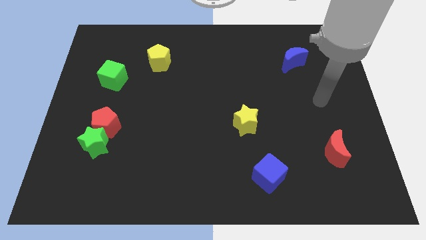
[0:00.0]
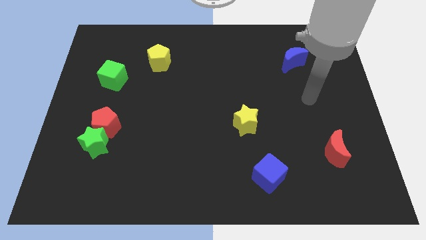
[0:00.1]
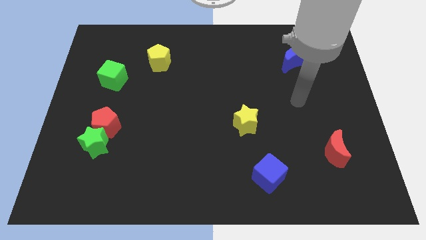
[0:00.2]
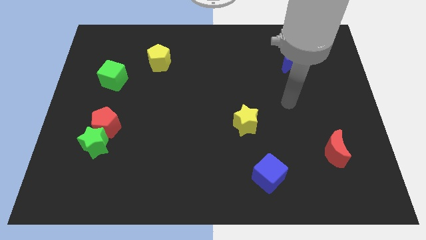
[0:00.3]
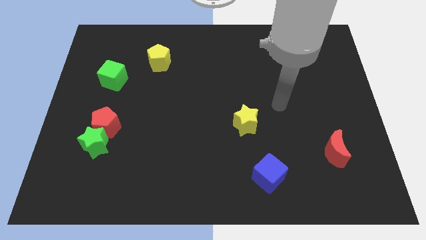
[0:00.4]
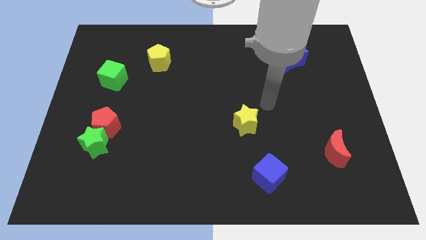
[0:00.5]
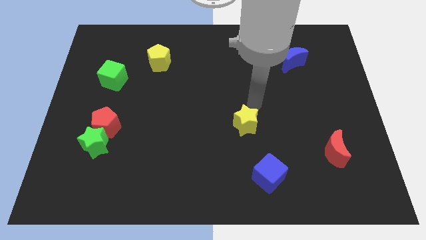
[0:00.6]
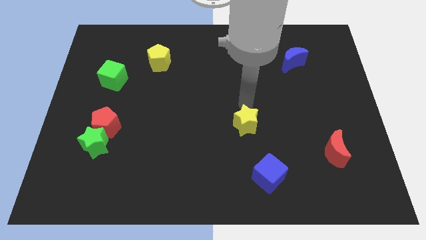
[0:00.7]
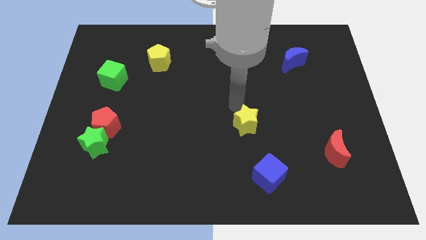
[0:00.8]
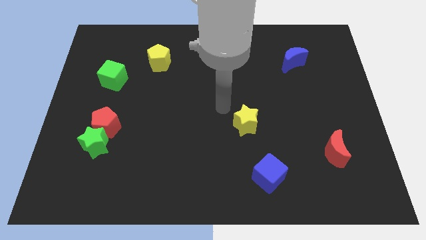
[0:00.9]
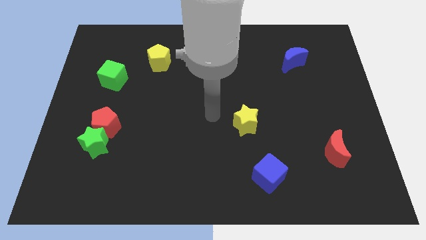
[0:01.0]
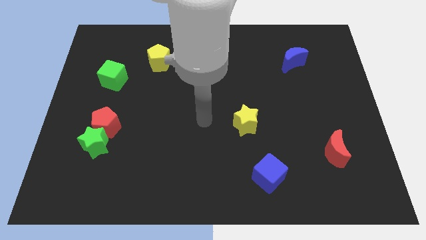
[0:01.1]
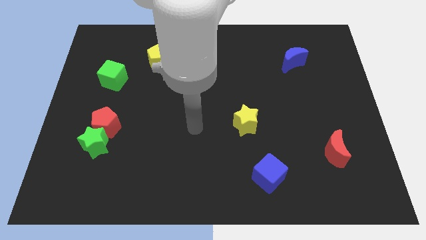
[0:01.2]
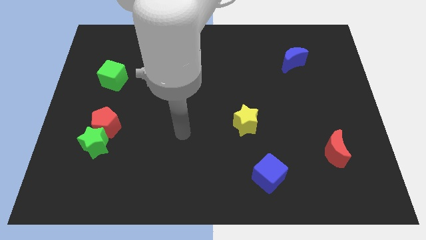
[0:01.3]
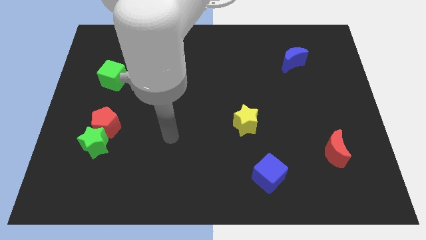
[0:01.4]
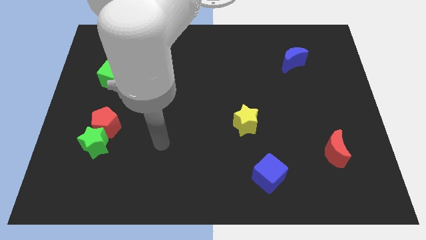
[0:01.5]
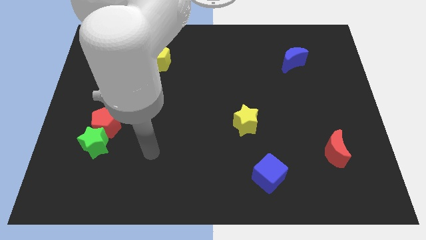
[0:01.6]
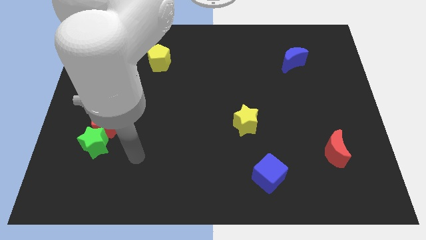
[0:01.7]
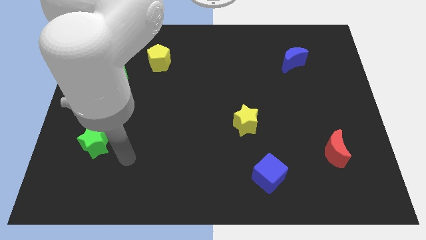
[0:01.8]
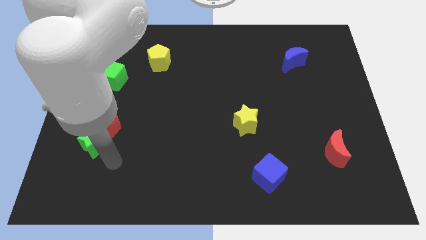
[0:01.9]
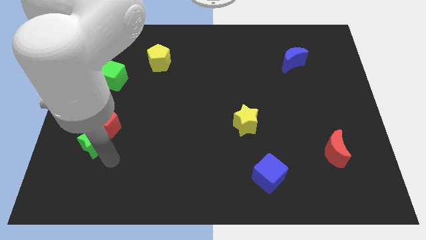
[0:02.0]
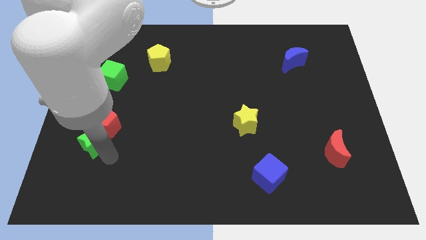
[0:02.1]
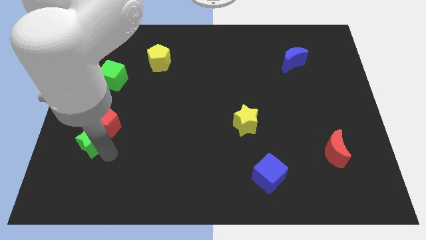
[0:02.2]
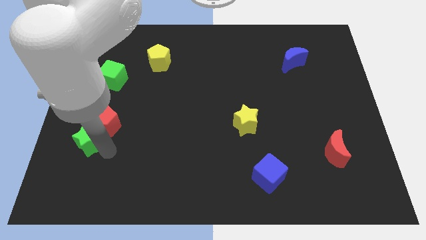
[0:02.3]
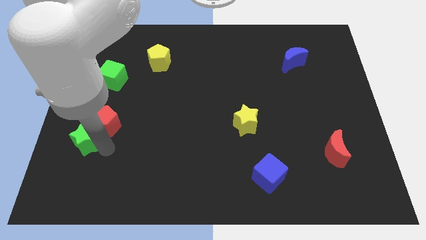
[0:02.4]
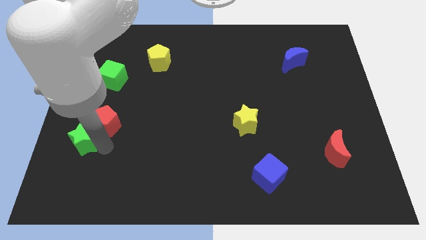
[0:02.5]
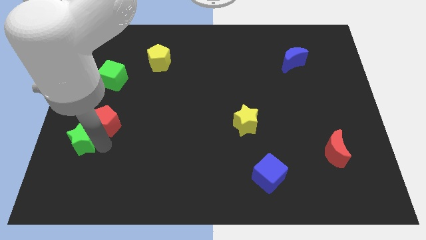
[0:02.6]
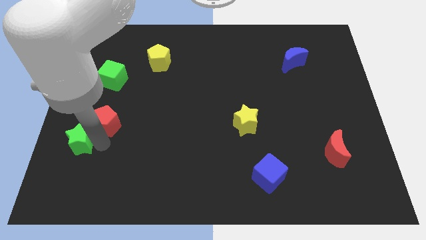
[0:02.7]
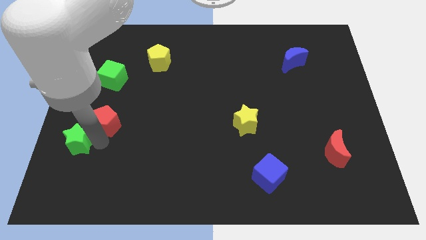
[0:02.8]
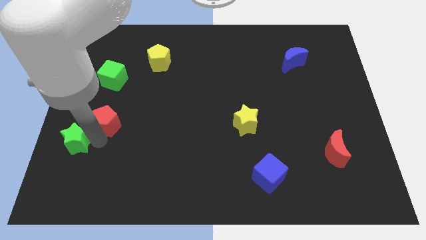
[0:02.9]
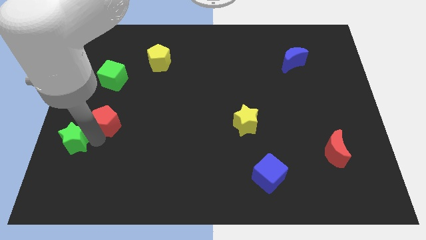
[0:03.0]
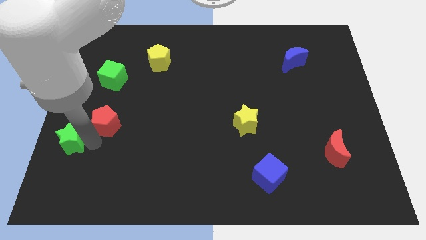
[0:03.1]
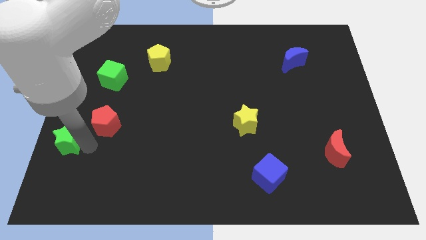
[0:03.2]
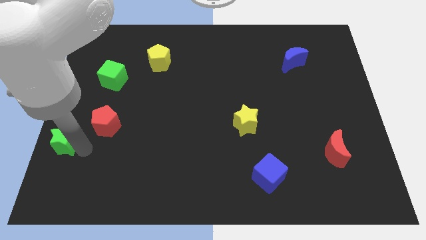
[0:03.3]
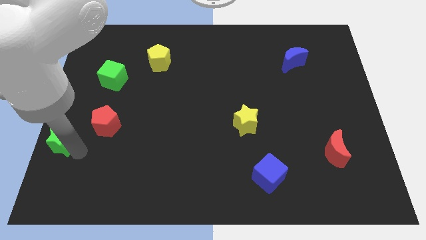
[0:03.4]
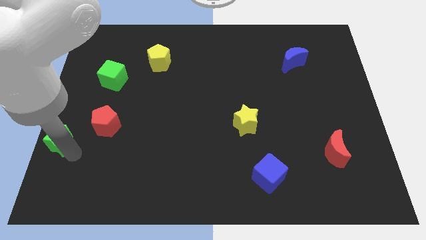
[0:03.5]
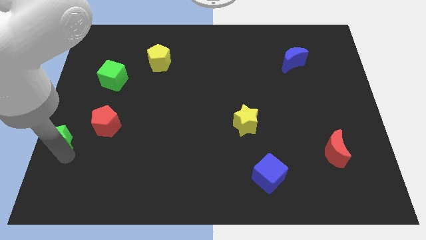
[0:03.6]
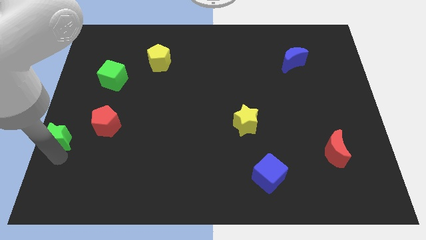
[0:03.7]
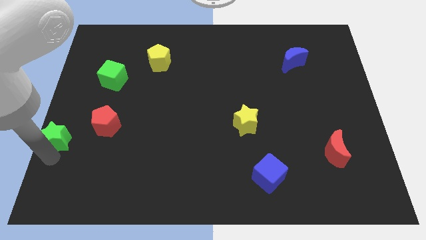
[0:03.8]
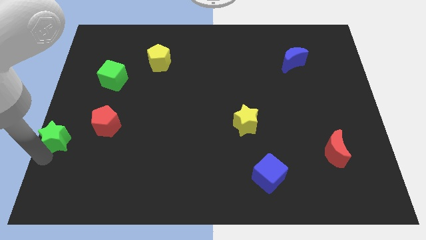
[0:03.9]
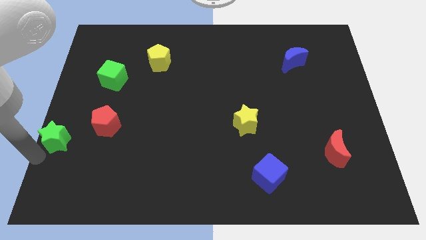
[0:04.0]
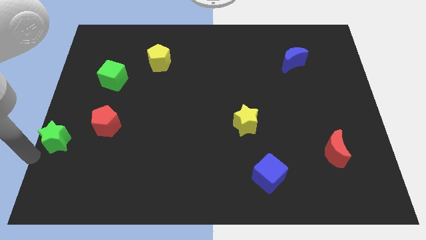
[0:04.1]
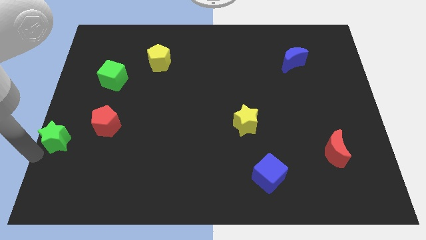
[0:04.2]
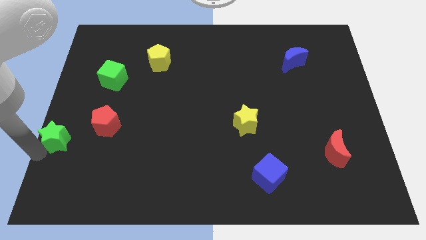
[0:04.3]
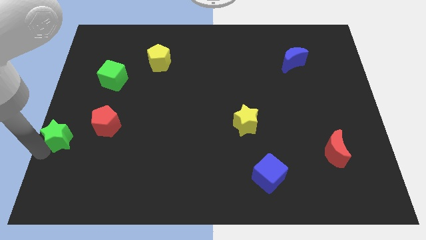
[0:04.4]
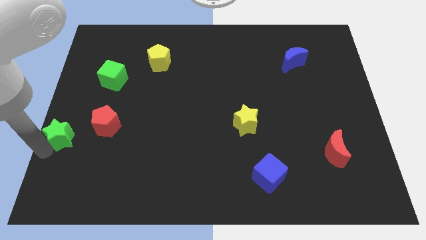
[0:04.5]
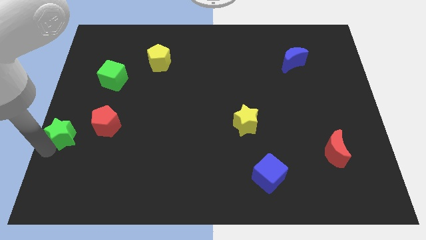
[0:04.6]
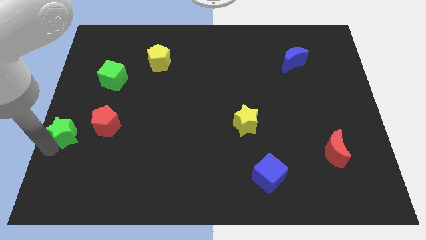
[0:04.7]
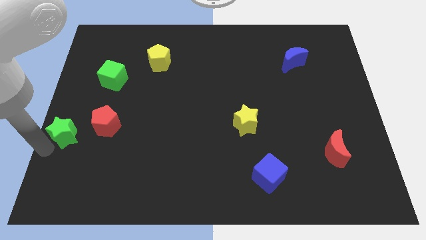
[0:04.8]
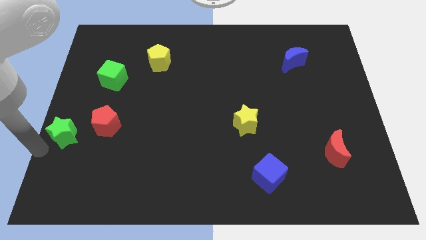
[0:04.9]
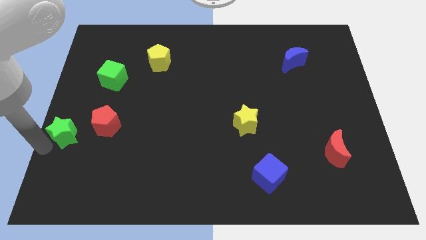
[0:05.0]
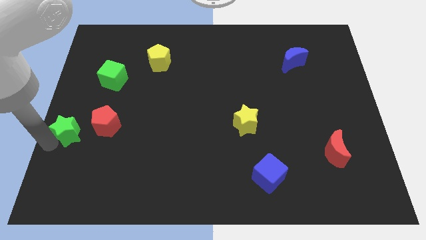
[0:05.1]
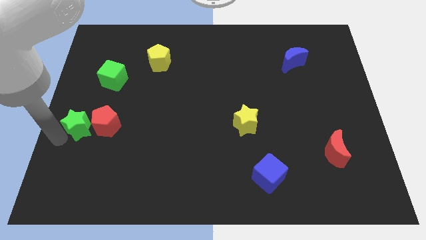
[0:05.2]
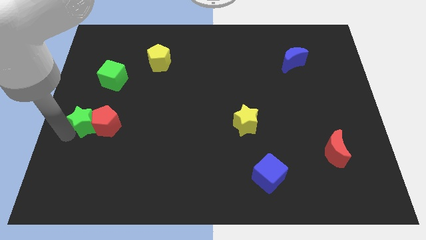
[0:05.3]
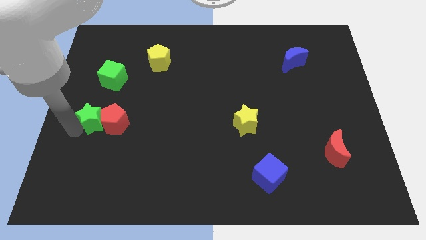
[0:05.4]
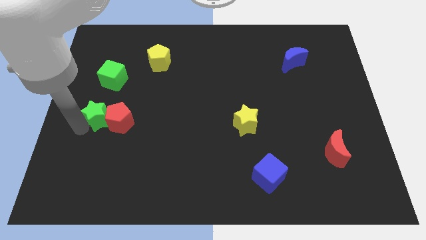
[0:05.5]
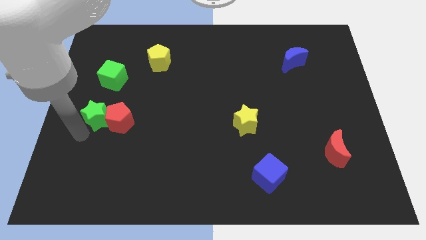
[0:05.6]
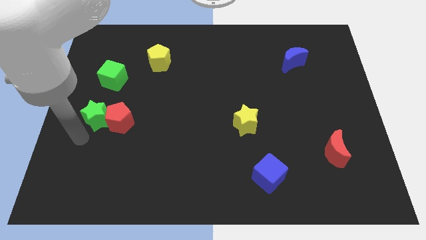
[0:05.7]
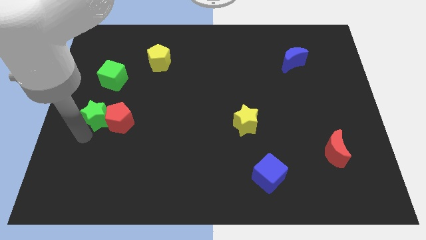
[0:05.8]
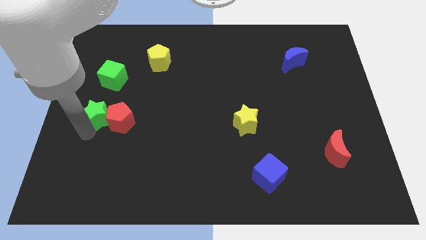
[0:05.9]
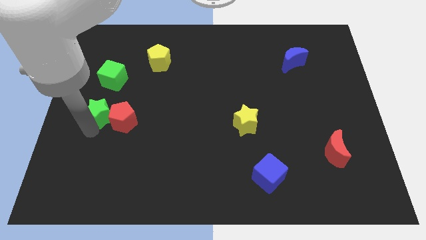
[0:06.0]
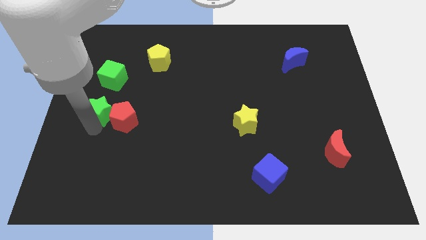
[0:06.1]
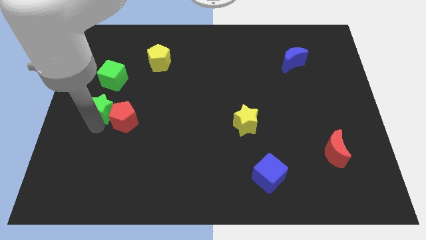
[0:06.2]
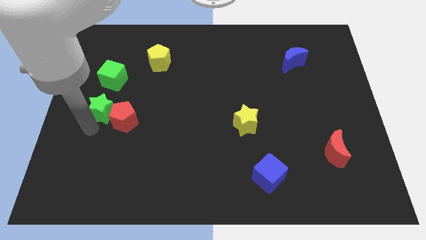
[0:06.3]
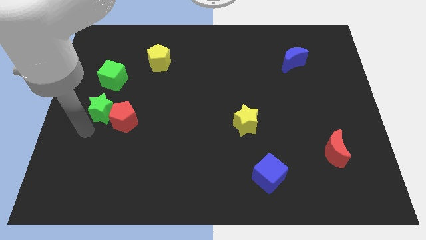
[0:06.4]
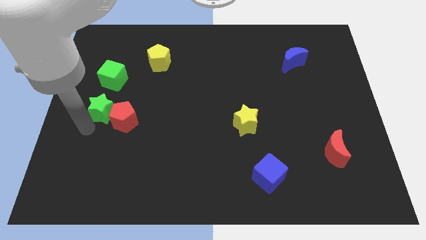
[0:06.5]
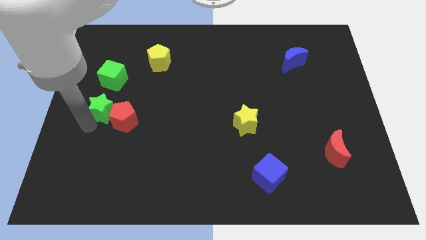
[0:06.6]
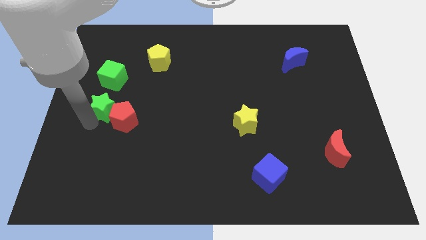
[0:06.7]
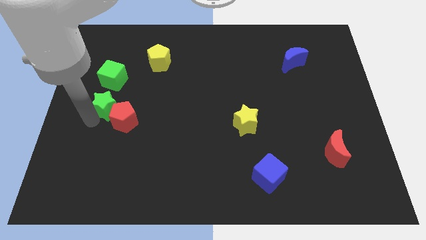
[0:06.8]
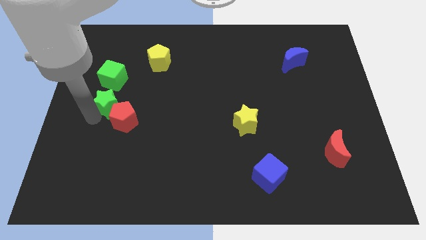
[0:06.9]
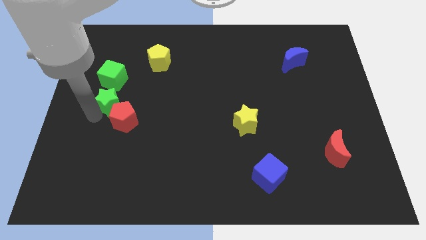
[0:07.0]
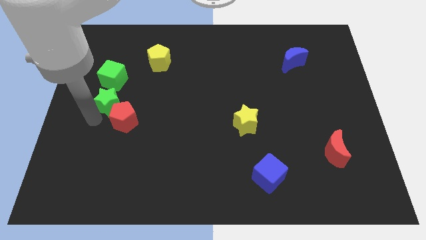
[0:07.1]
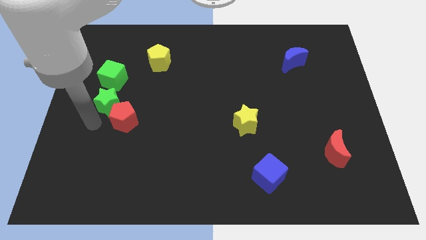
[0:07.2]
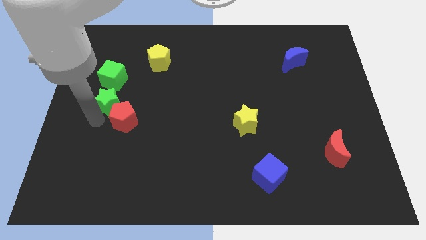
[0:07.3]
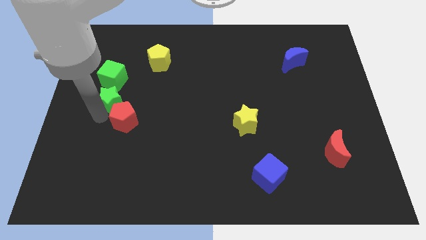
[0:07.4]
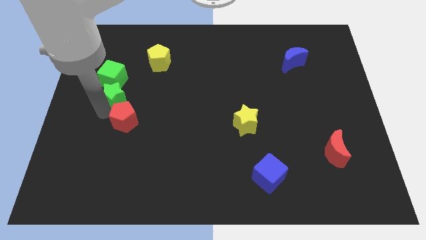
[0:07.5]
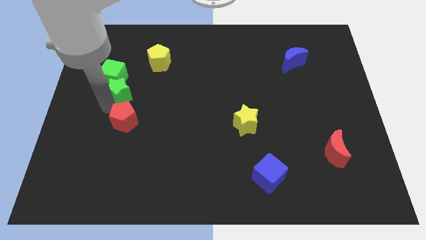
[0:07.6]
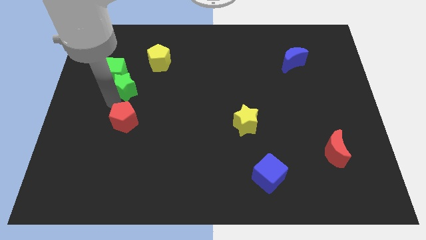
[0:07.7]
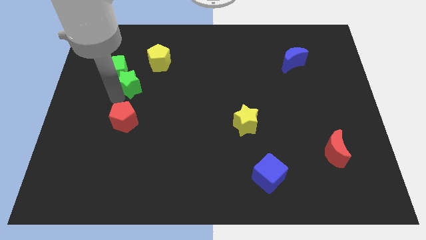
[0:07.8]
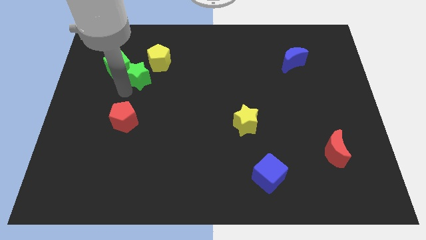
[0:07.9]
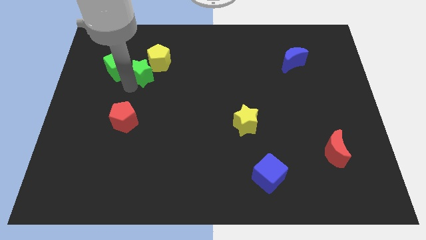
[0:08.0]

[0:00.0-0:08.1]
put the green star to the yellow pentagon
